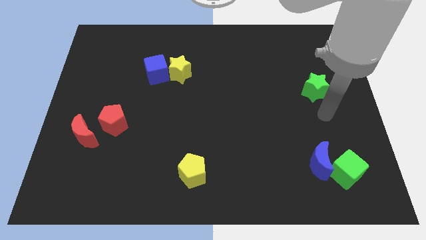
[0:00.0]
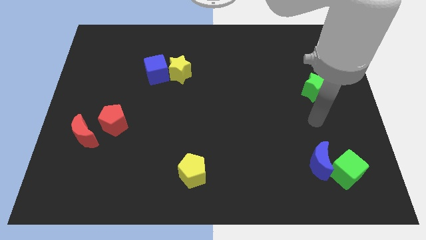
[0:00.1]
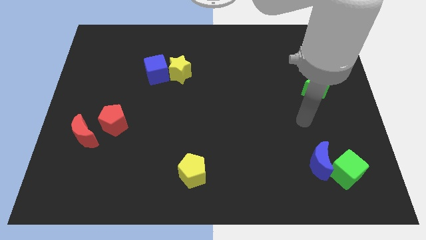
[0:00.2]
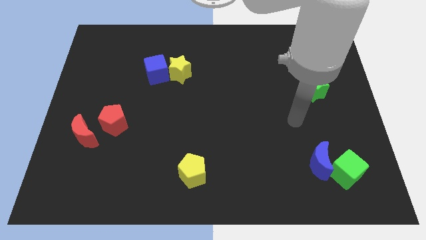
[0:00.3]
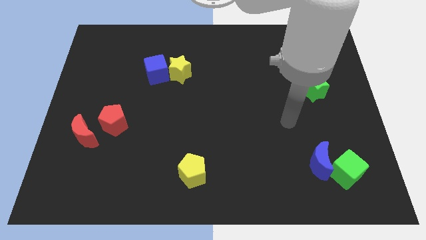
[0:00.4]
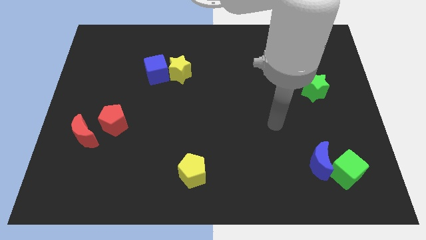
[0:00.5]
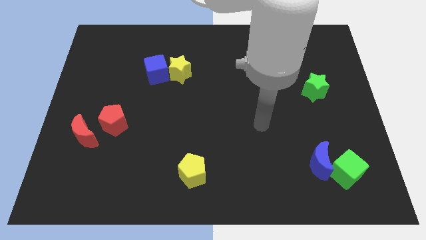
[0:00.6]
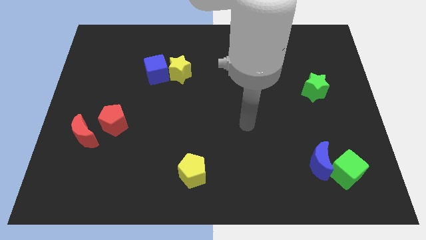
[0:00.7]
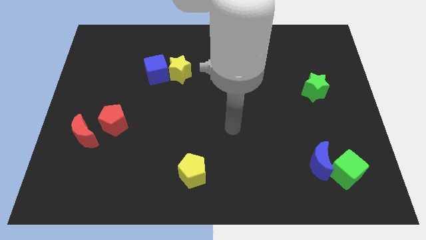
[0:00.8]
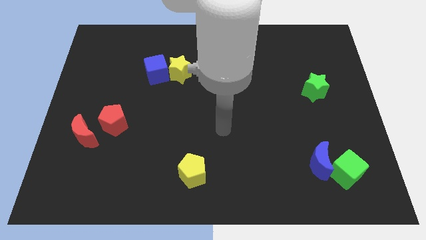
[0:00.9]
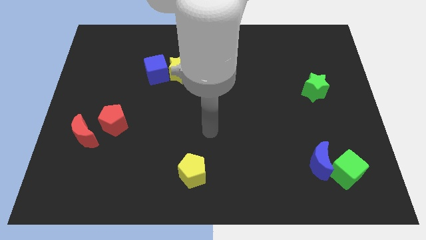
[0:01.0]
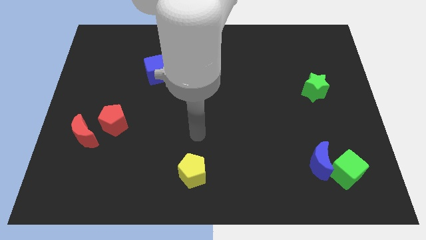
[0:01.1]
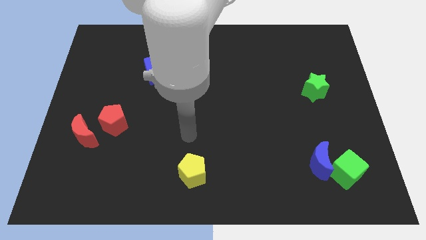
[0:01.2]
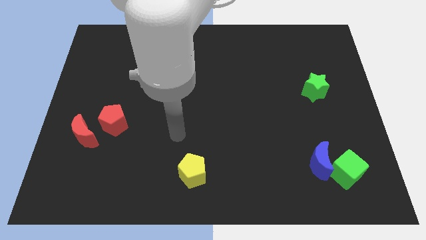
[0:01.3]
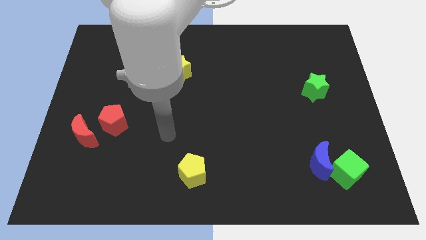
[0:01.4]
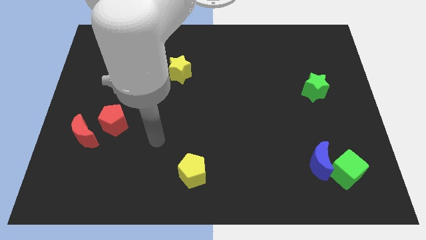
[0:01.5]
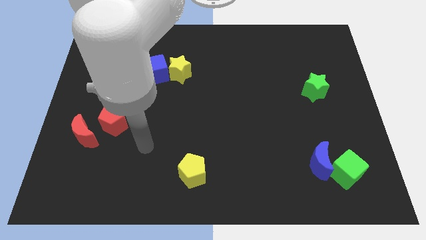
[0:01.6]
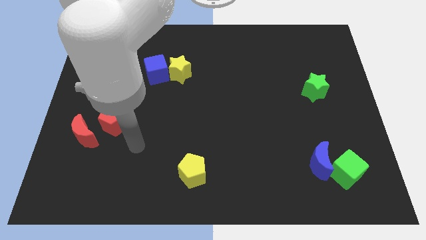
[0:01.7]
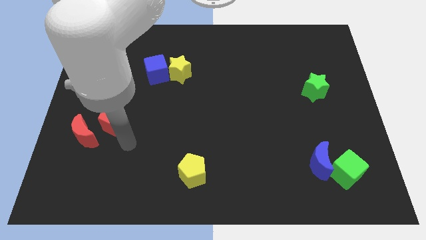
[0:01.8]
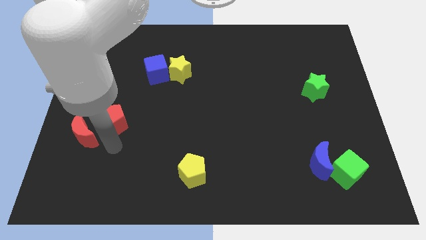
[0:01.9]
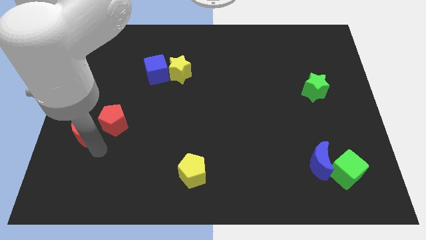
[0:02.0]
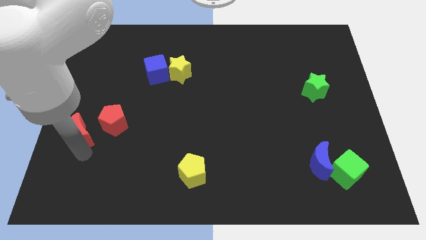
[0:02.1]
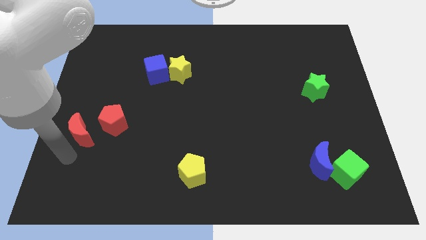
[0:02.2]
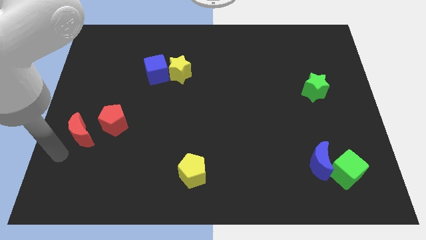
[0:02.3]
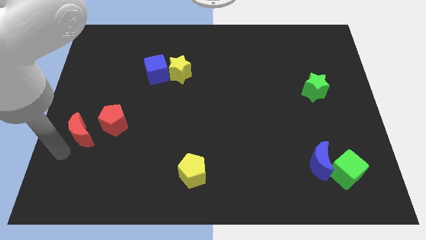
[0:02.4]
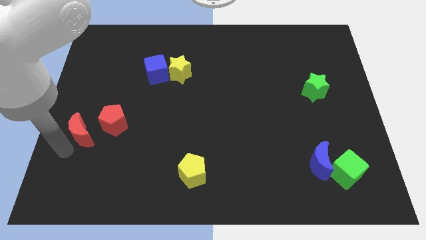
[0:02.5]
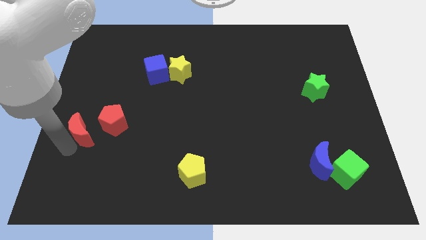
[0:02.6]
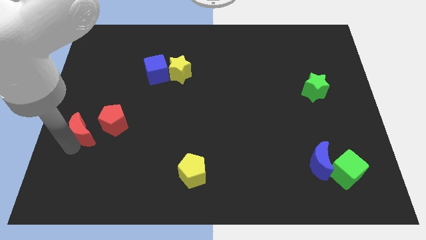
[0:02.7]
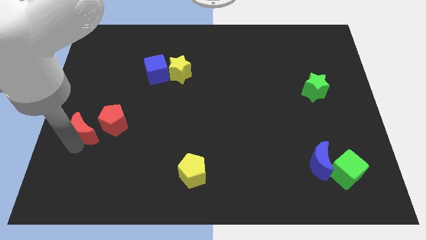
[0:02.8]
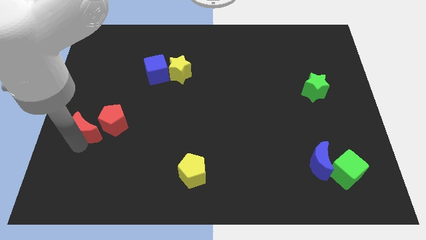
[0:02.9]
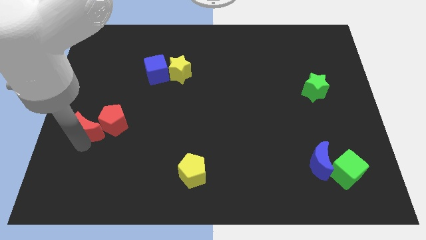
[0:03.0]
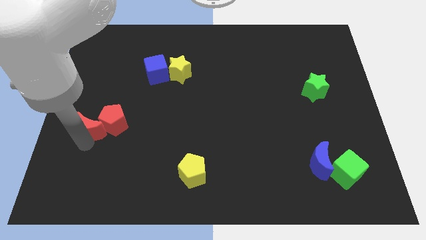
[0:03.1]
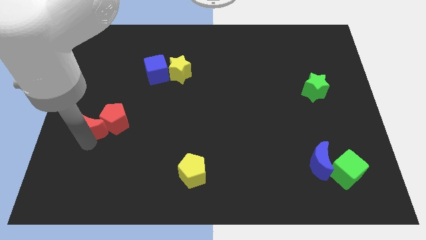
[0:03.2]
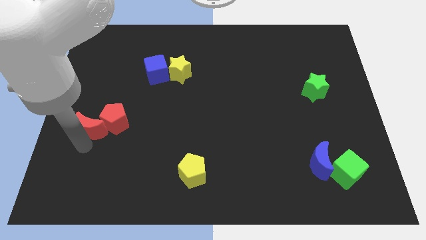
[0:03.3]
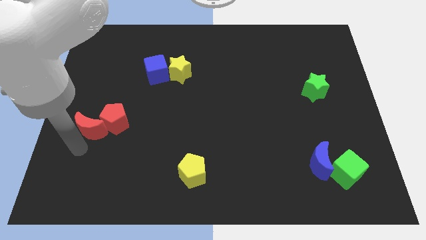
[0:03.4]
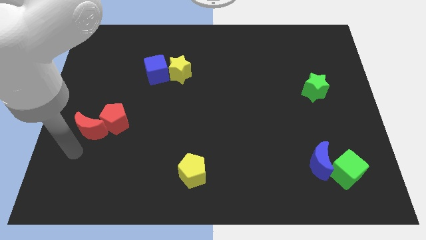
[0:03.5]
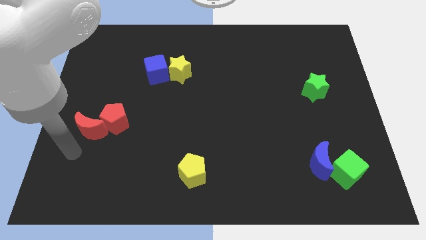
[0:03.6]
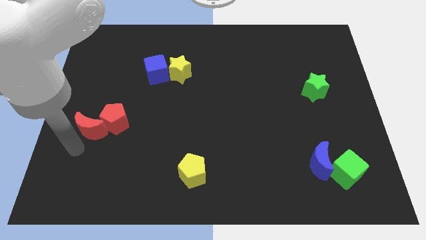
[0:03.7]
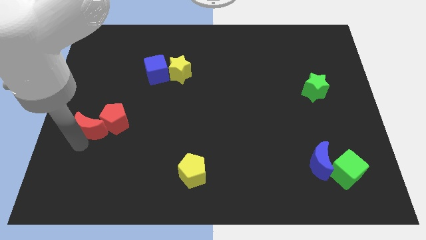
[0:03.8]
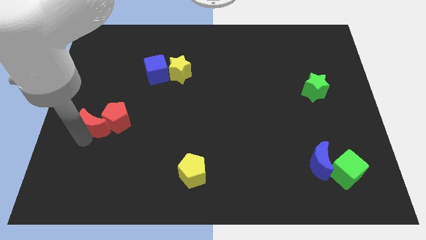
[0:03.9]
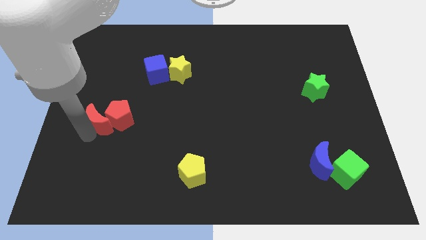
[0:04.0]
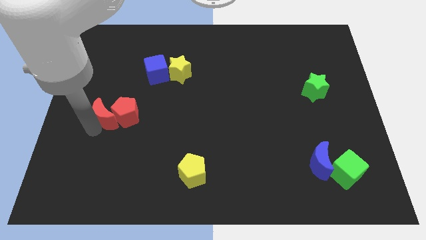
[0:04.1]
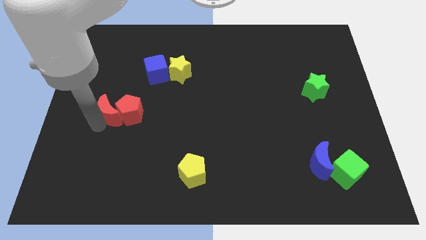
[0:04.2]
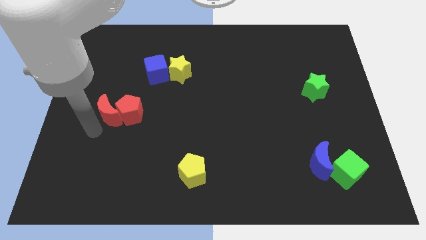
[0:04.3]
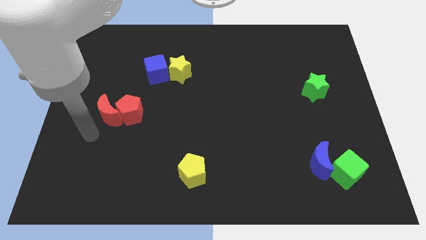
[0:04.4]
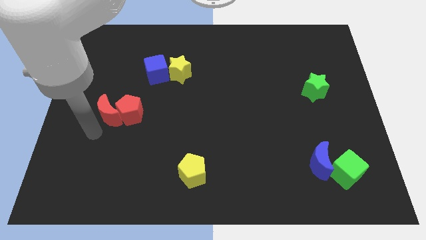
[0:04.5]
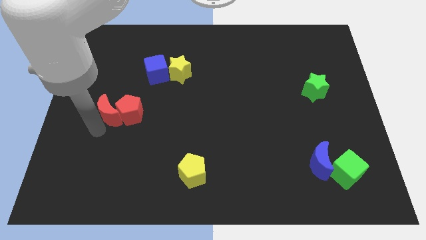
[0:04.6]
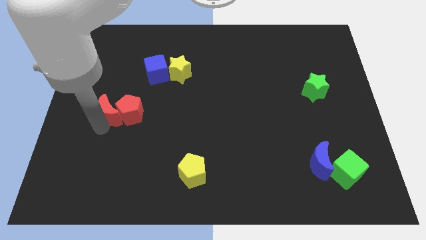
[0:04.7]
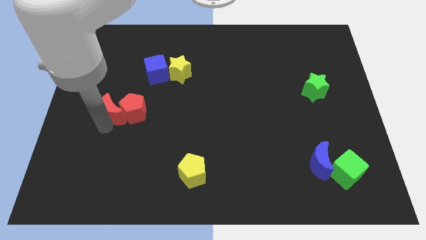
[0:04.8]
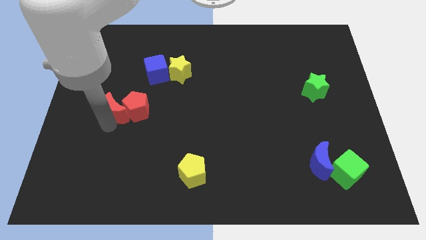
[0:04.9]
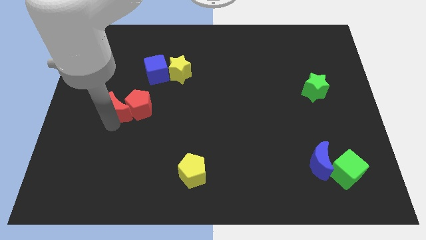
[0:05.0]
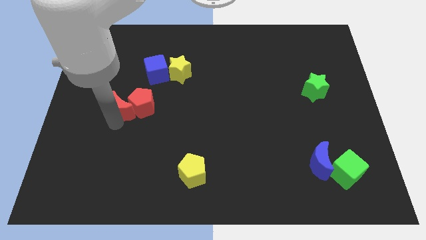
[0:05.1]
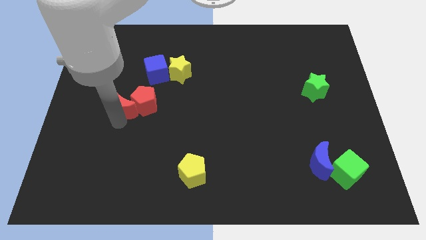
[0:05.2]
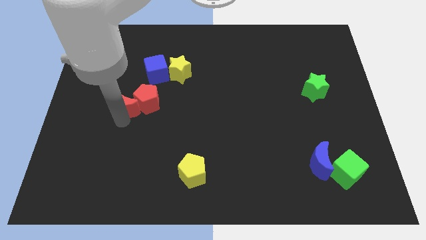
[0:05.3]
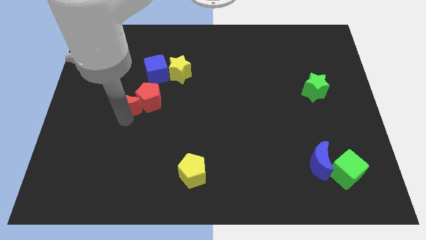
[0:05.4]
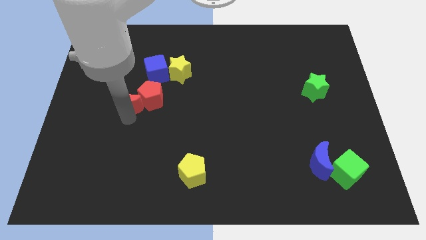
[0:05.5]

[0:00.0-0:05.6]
push the red moon to the bottom left of the blue cube

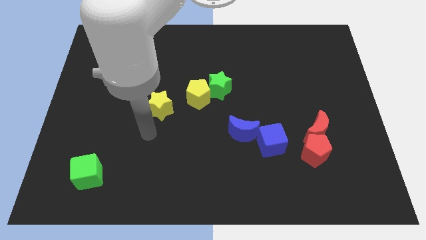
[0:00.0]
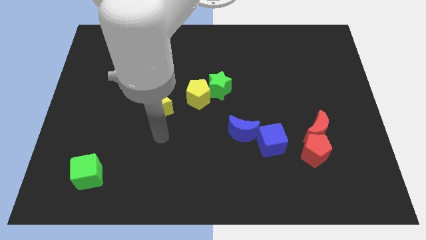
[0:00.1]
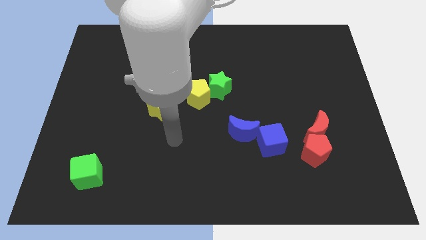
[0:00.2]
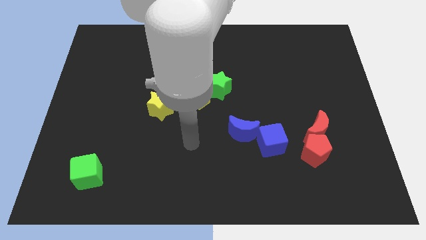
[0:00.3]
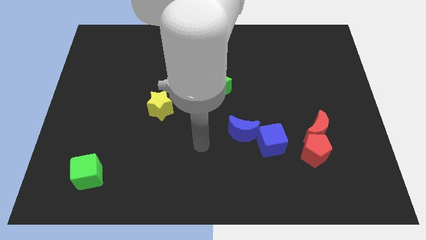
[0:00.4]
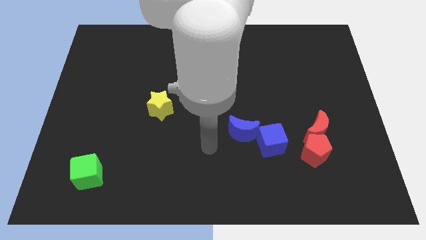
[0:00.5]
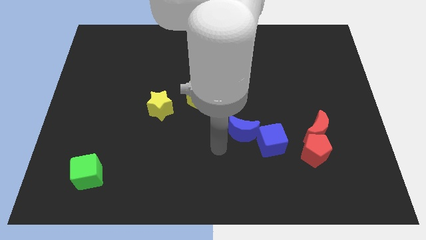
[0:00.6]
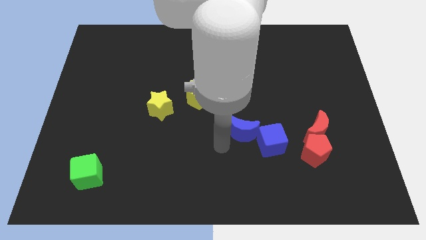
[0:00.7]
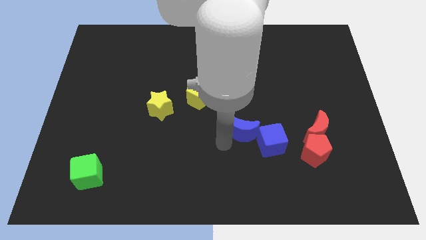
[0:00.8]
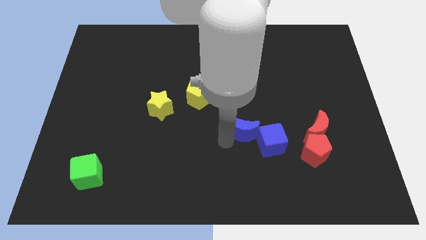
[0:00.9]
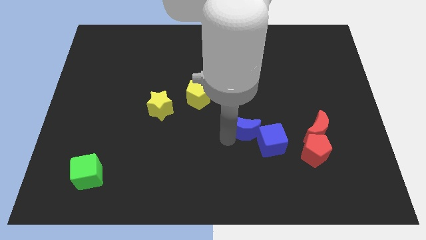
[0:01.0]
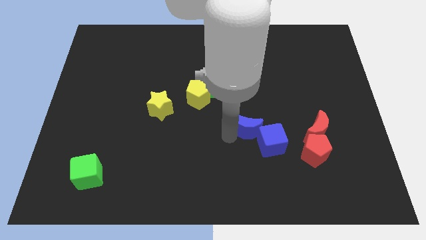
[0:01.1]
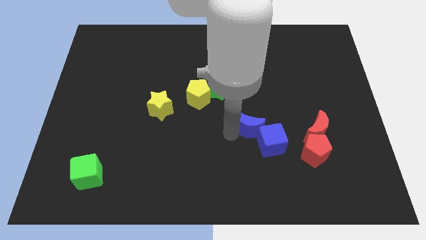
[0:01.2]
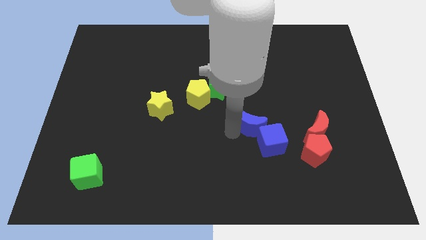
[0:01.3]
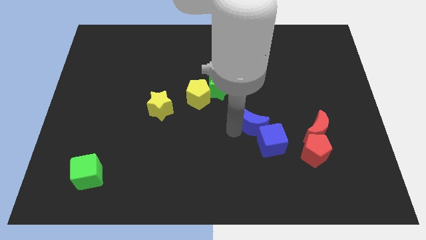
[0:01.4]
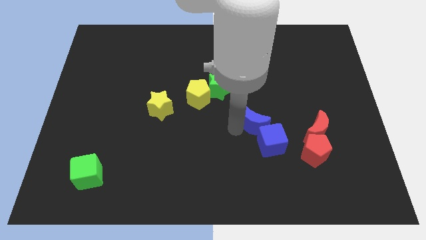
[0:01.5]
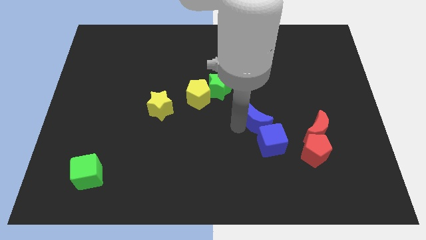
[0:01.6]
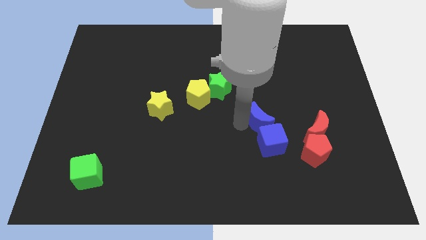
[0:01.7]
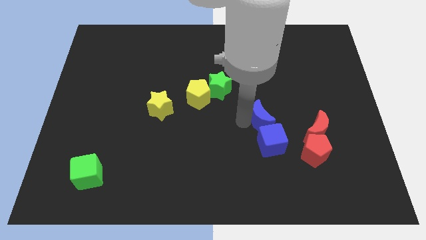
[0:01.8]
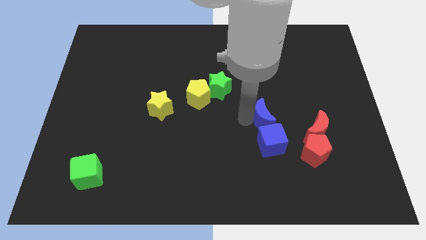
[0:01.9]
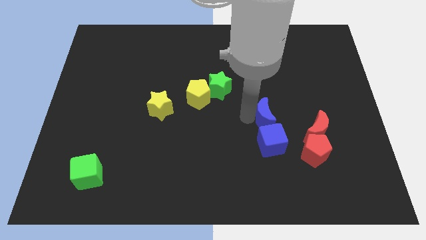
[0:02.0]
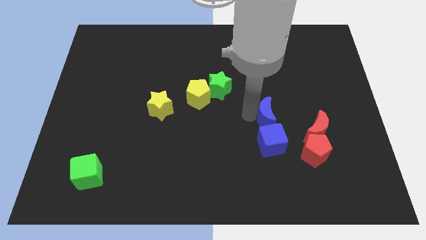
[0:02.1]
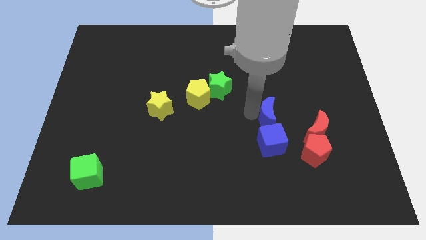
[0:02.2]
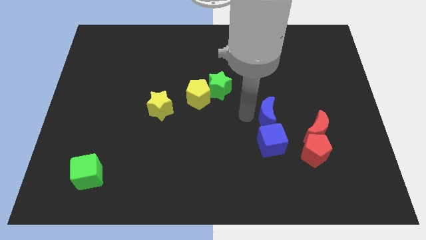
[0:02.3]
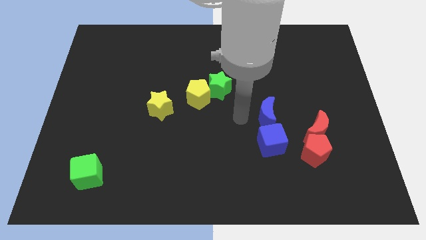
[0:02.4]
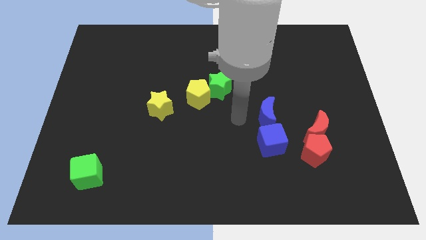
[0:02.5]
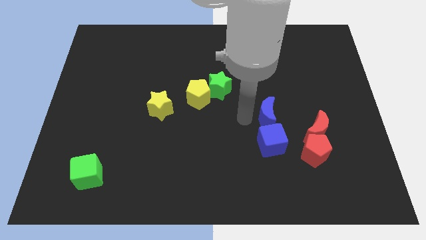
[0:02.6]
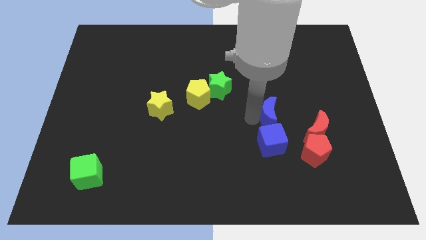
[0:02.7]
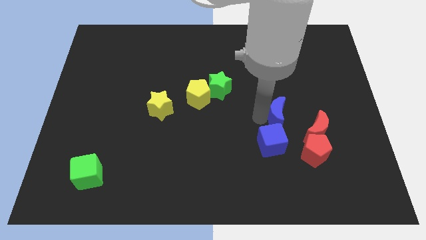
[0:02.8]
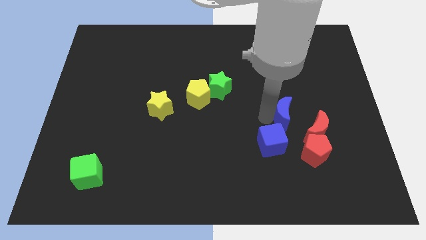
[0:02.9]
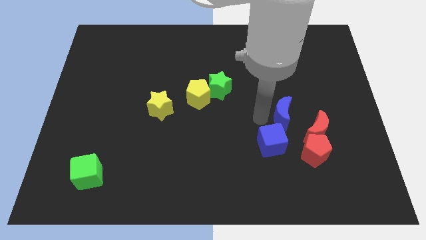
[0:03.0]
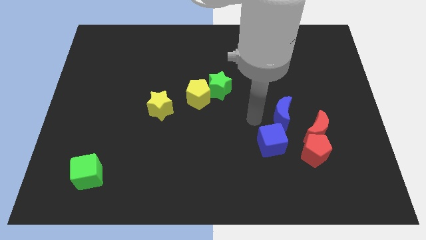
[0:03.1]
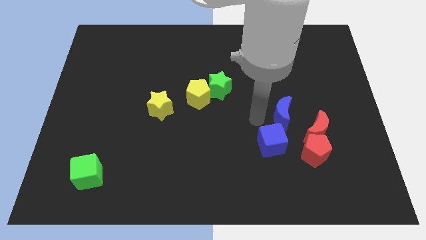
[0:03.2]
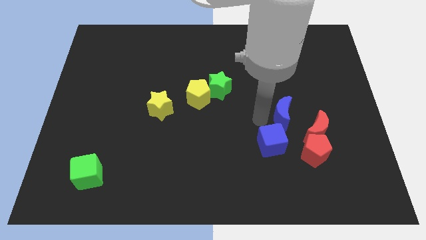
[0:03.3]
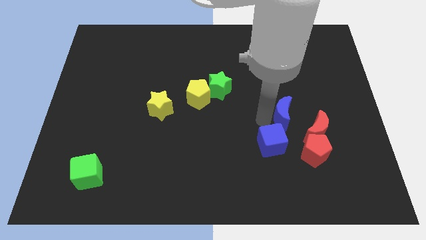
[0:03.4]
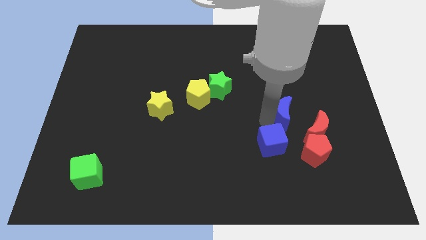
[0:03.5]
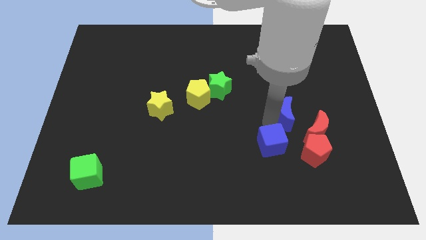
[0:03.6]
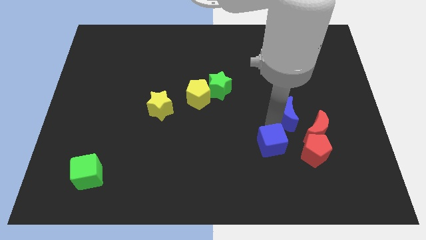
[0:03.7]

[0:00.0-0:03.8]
move the blue moon to the top of the red pentagon
